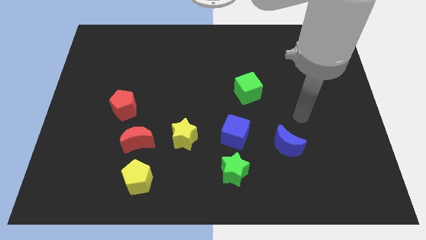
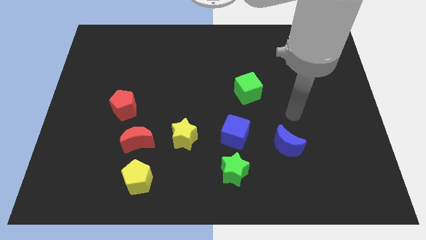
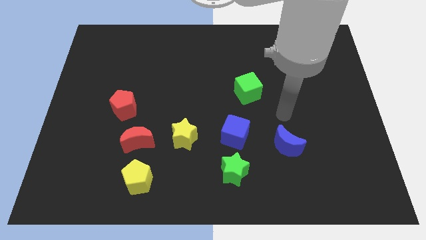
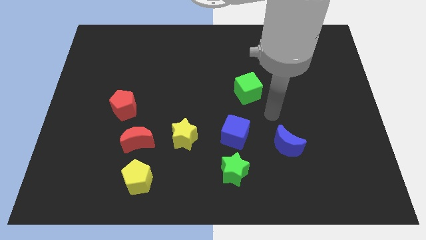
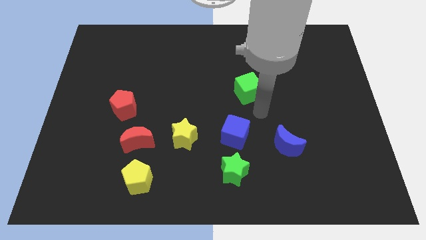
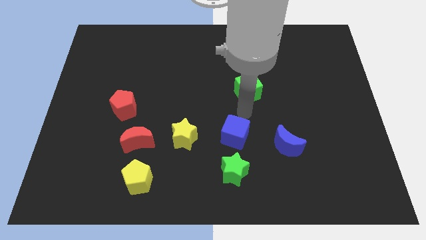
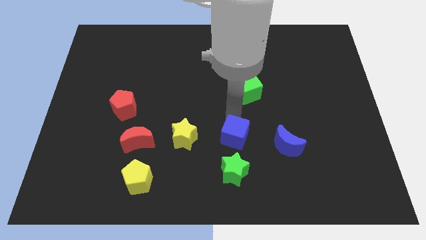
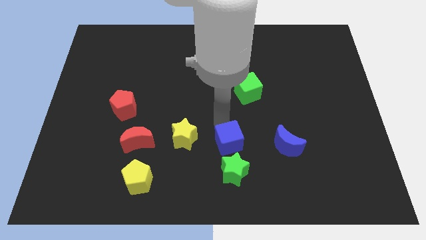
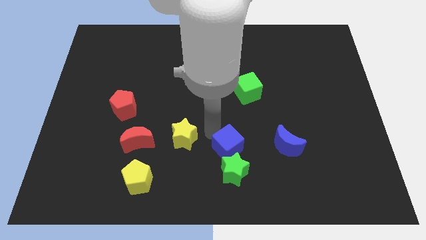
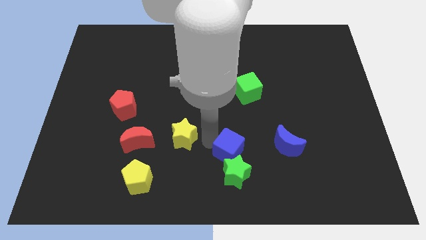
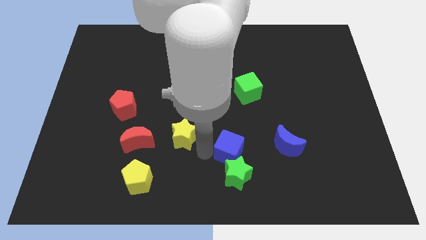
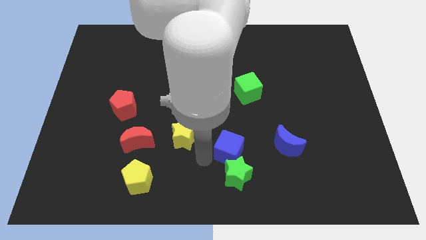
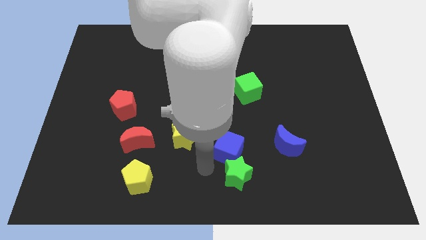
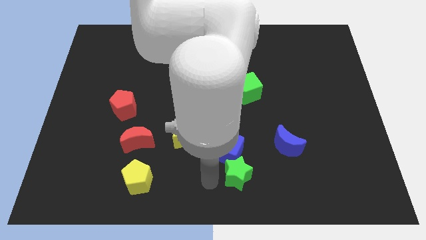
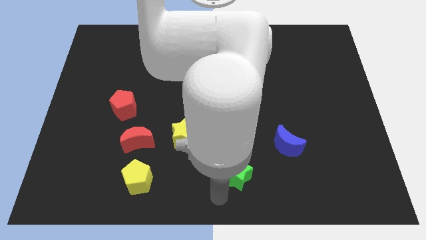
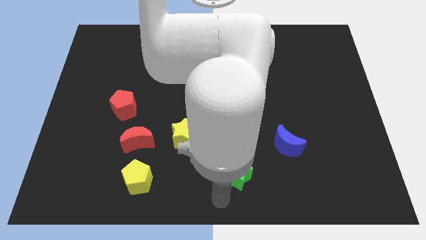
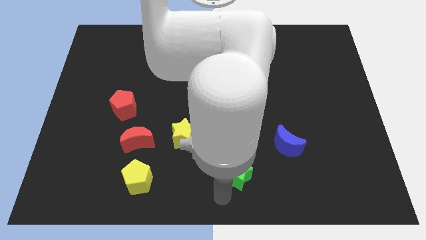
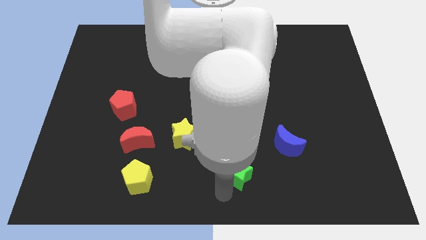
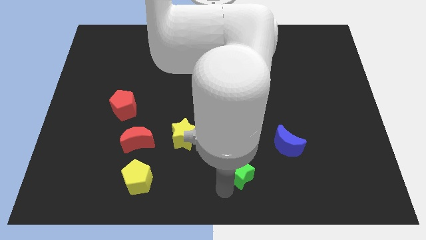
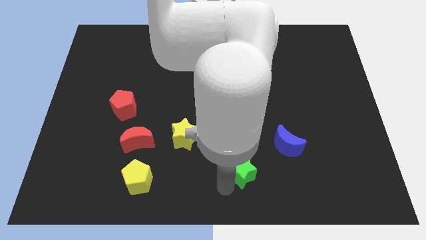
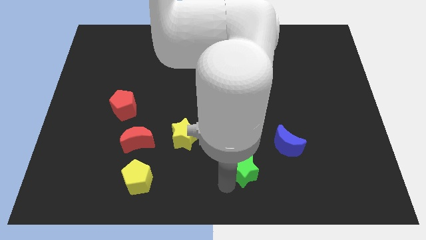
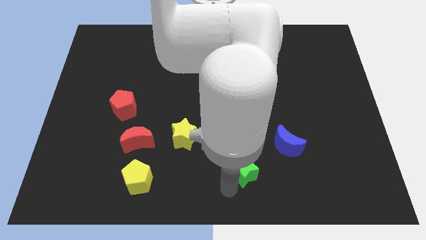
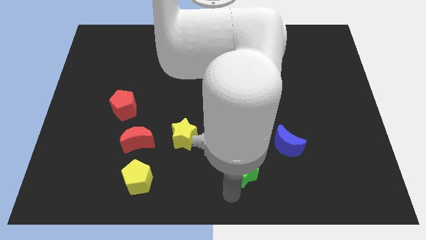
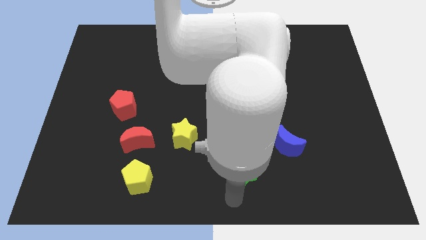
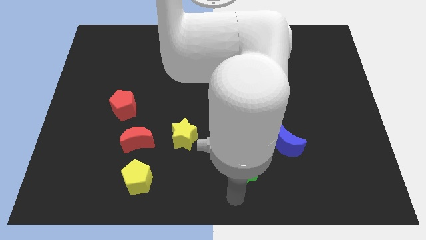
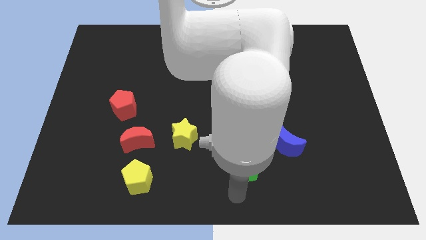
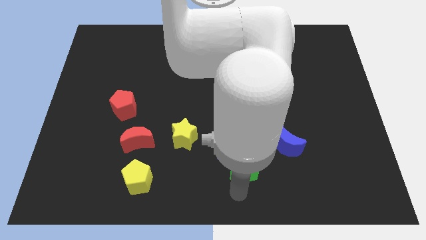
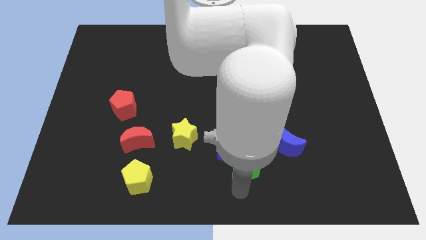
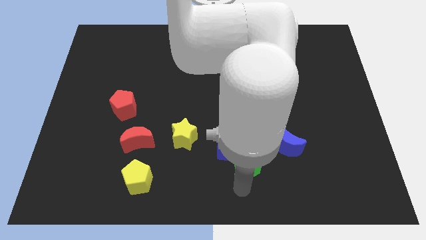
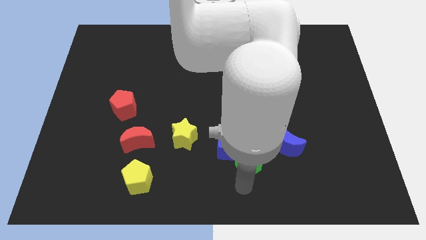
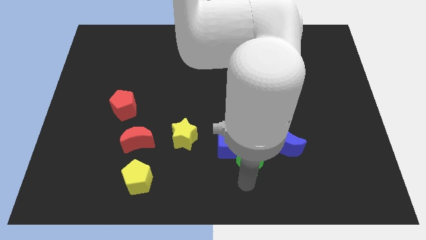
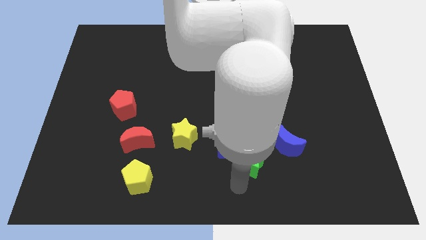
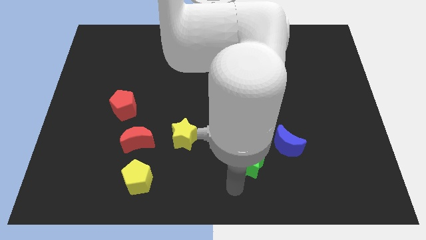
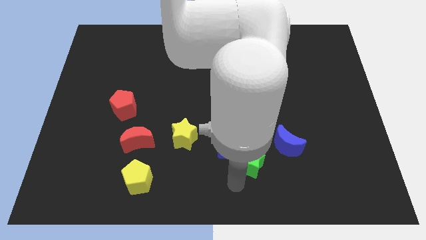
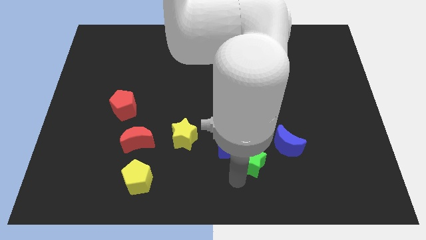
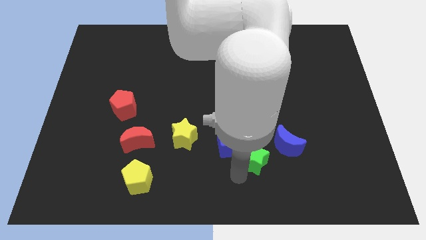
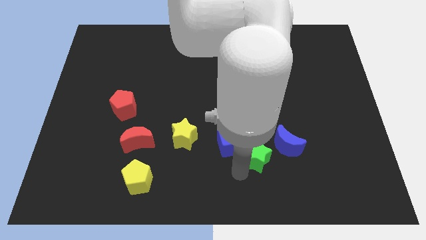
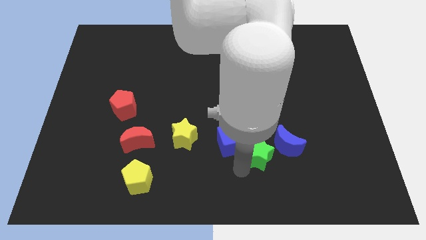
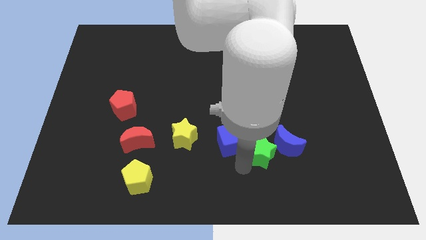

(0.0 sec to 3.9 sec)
slightly slide the green star upwards and to the right diagonally

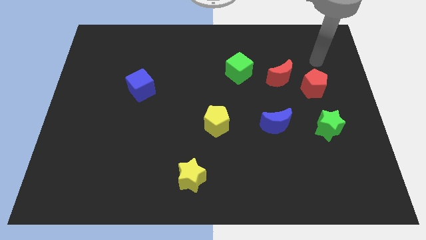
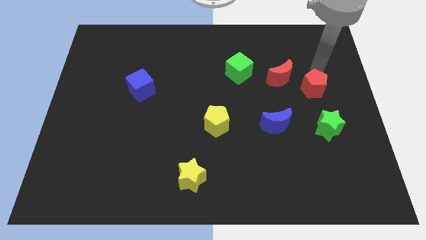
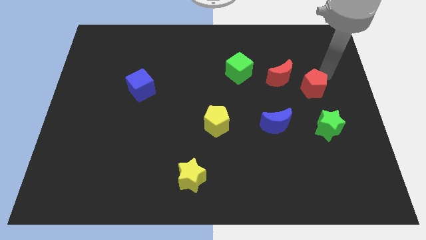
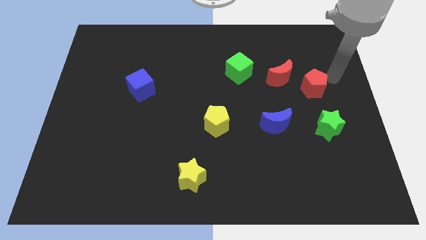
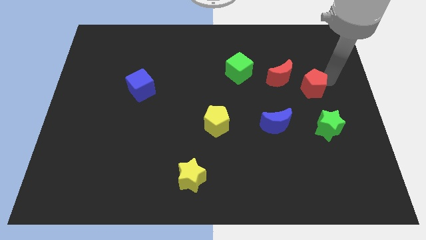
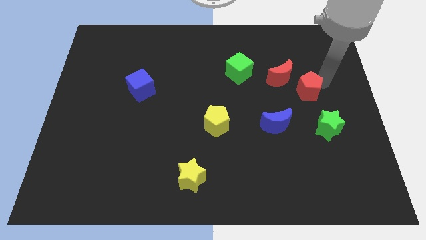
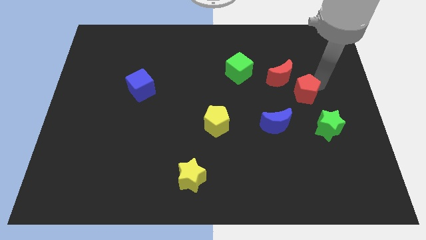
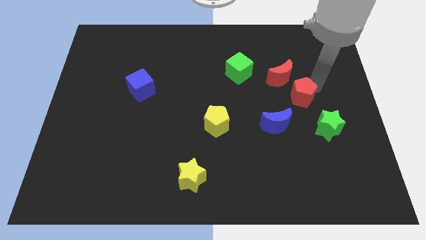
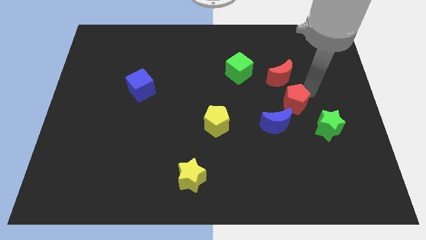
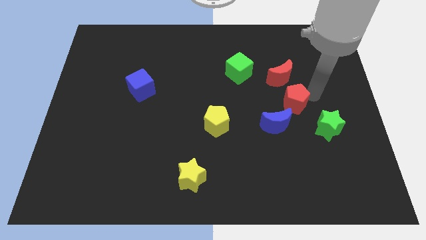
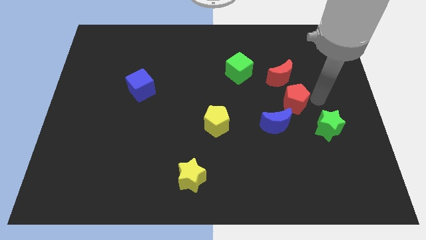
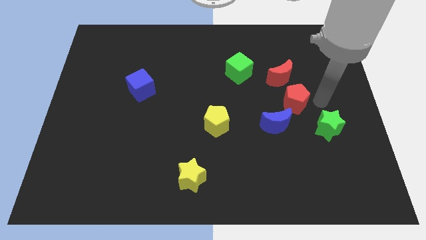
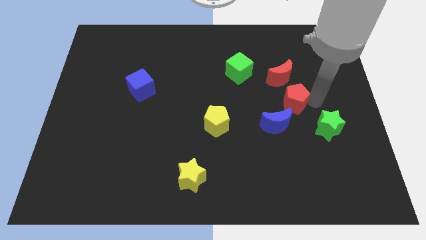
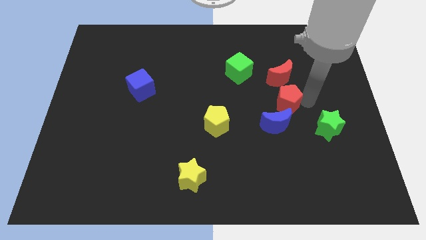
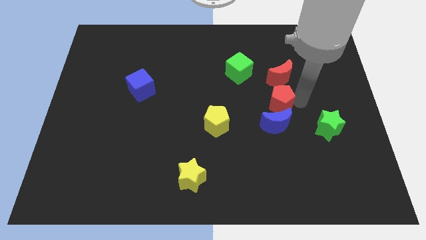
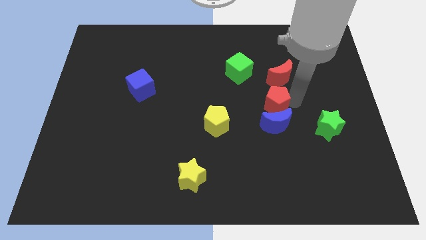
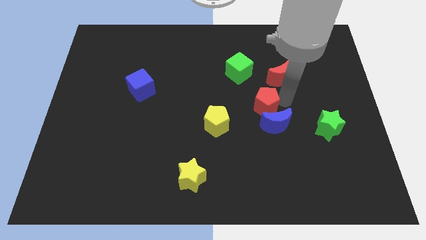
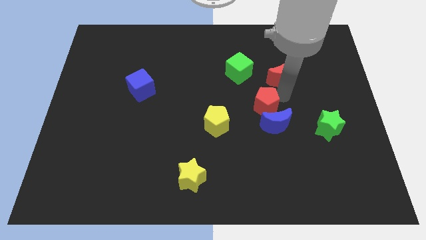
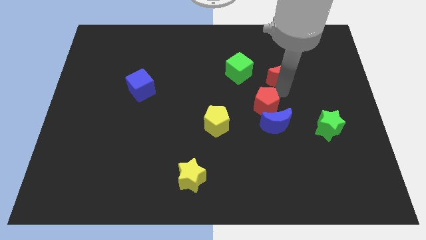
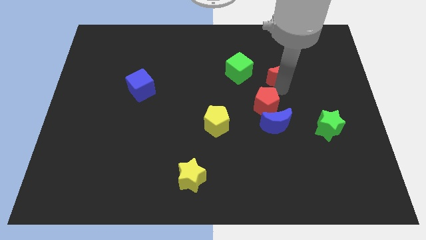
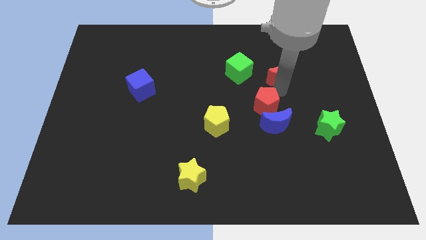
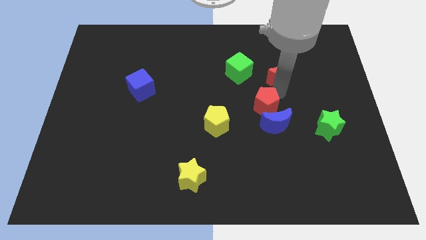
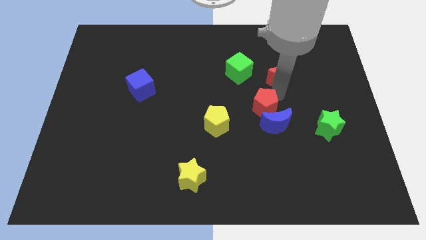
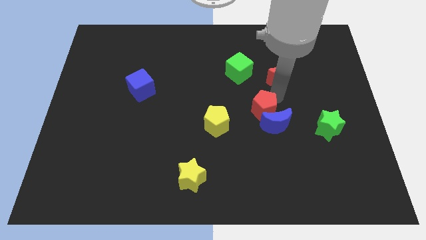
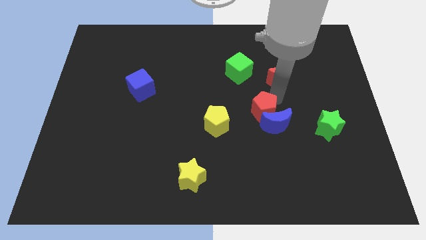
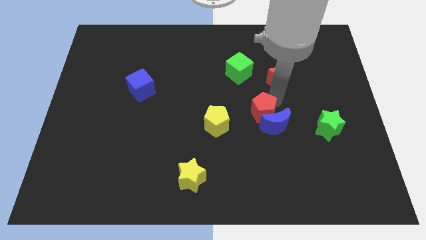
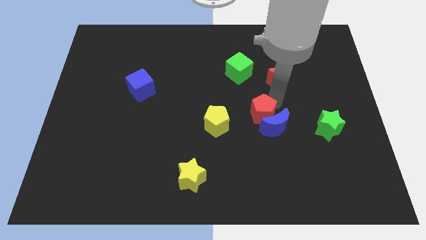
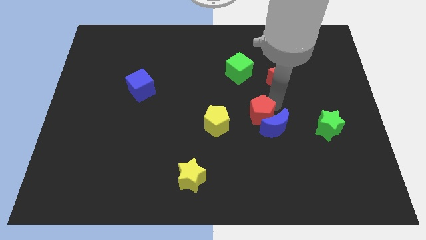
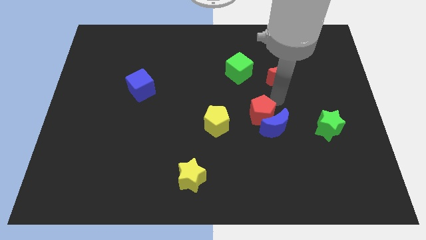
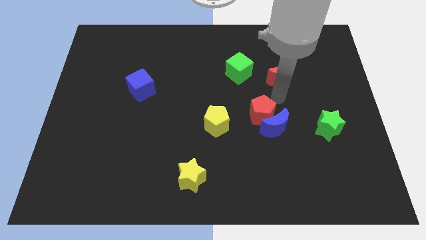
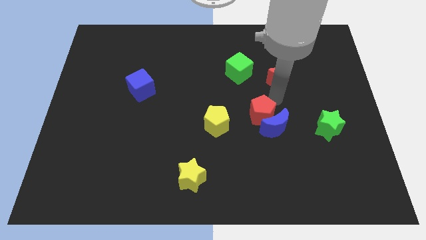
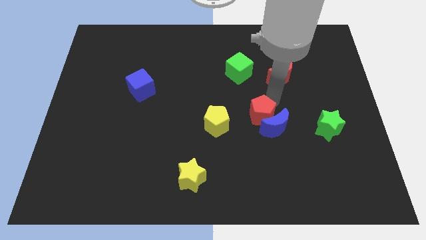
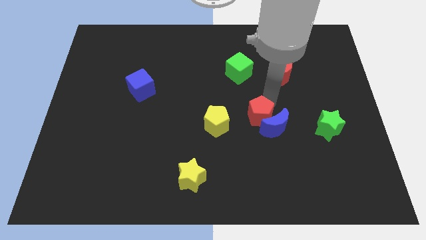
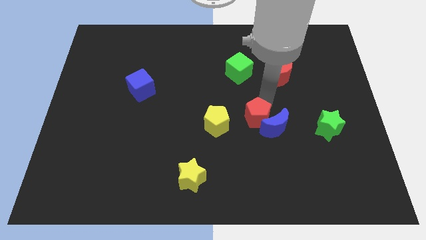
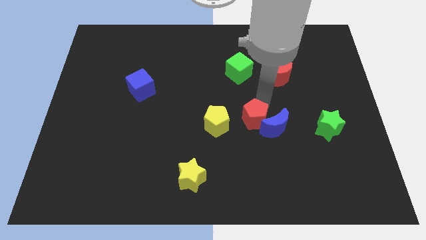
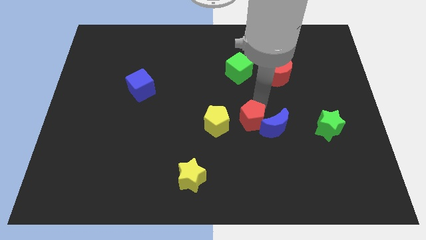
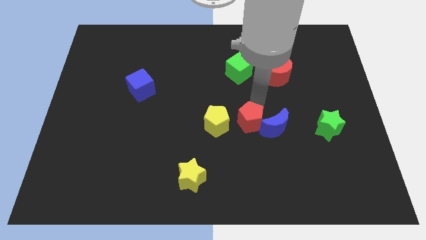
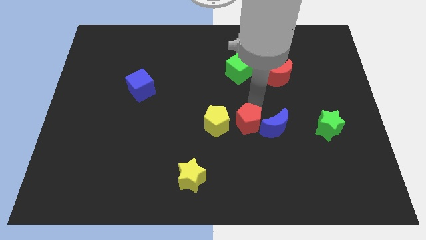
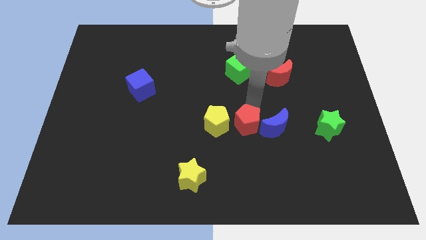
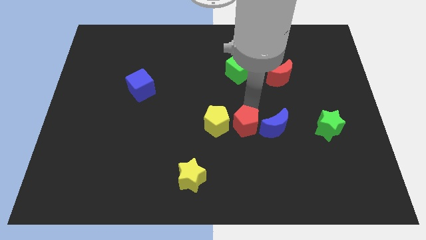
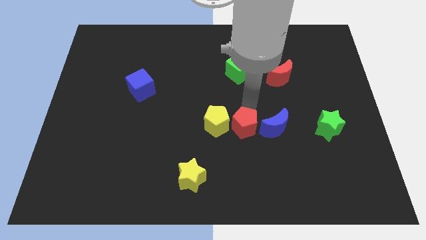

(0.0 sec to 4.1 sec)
slide the red pentagon diagonally down and left

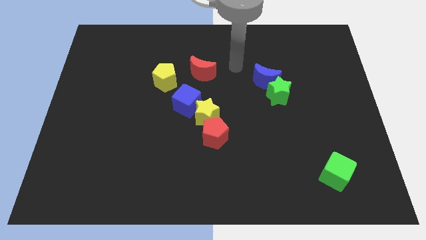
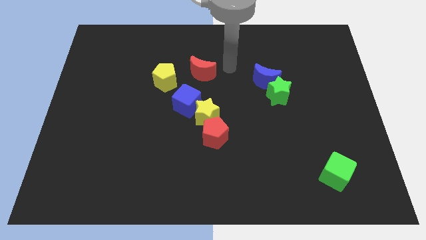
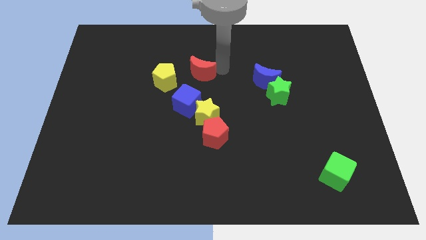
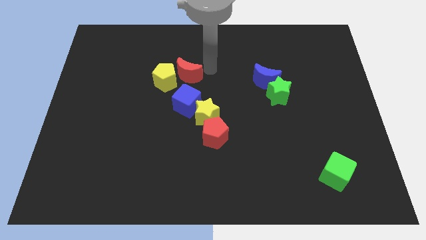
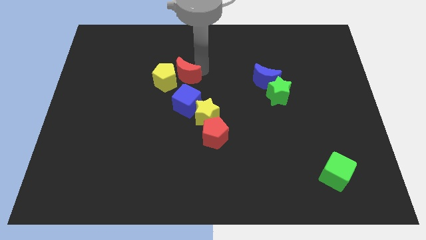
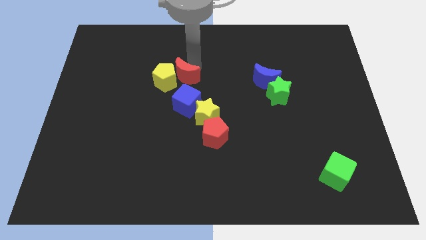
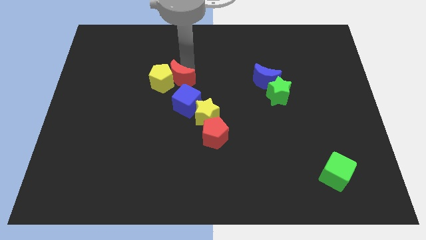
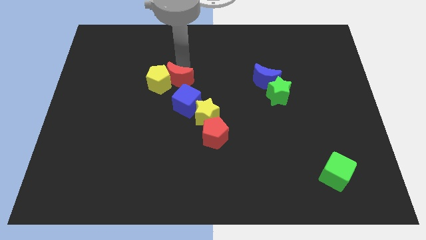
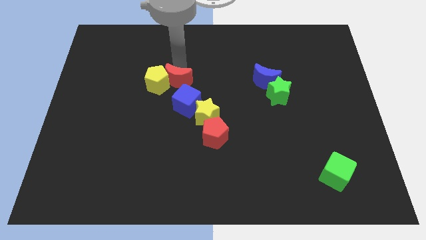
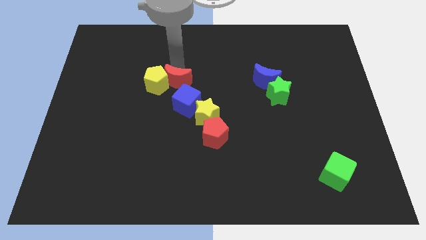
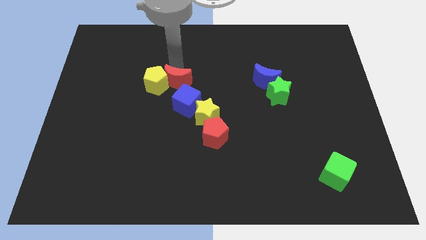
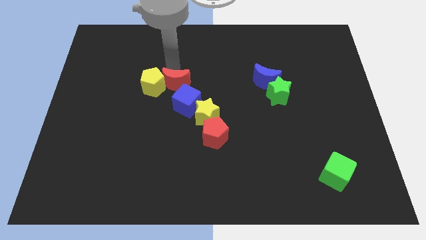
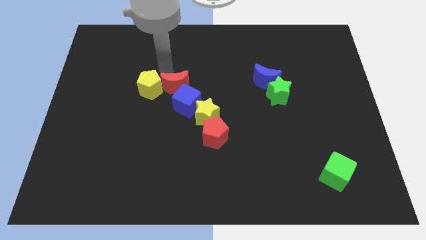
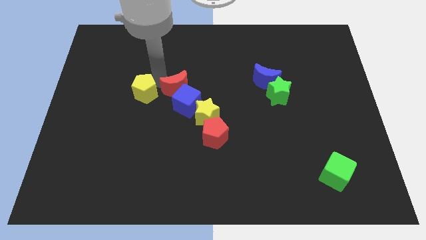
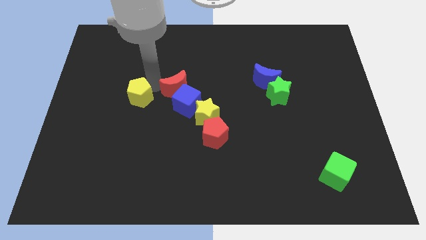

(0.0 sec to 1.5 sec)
slide the yellow pentagon a bit downwards and then left
